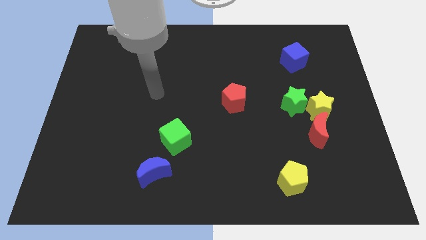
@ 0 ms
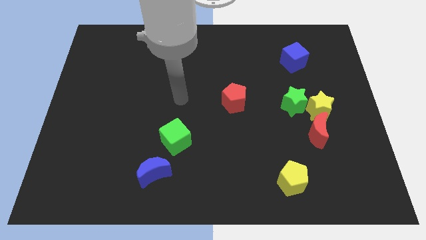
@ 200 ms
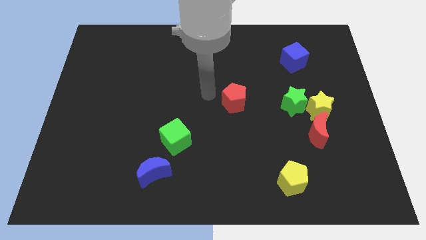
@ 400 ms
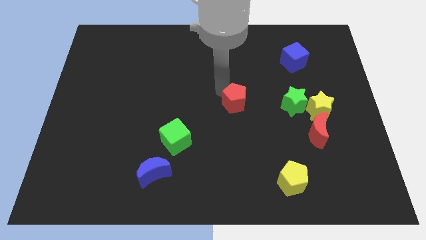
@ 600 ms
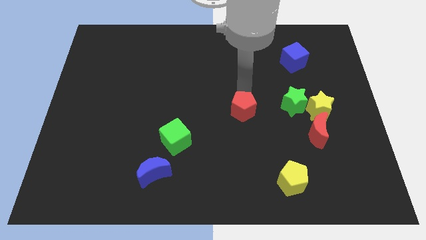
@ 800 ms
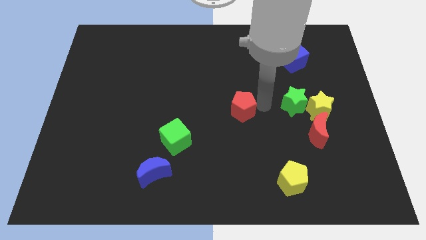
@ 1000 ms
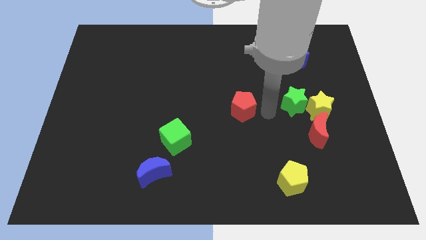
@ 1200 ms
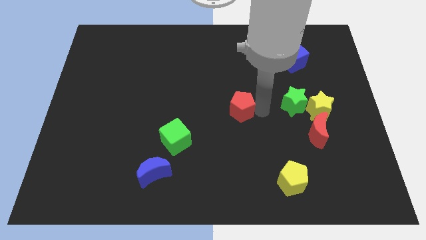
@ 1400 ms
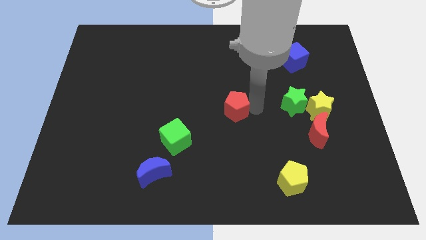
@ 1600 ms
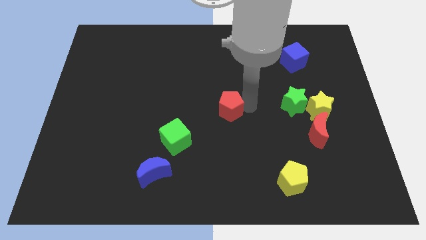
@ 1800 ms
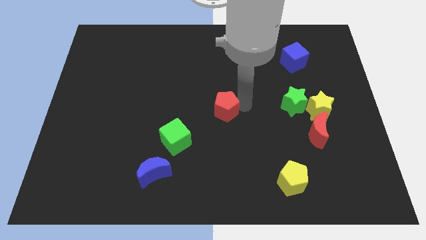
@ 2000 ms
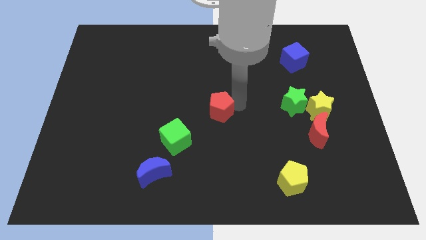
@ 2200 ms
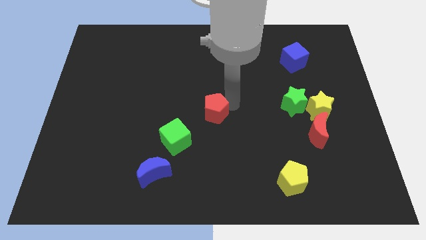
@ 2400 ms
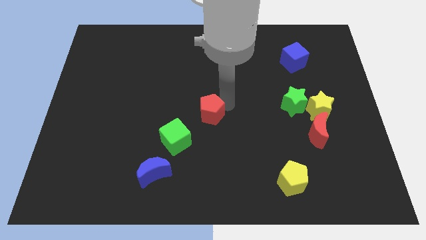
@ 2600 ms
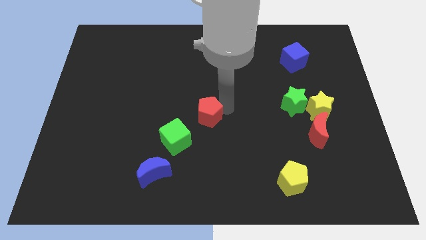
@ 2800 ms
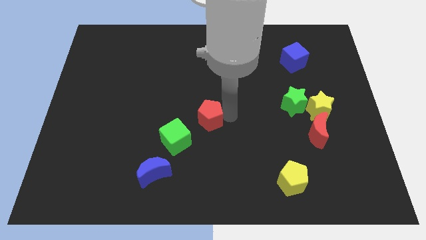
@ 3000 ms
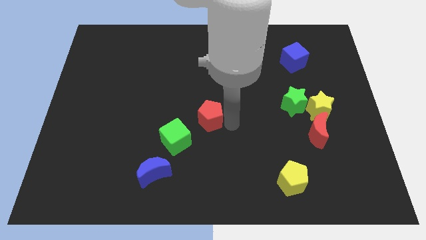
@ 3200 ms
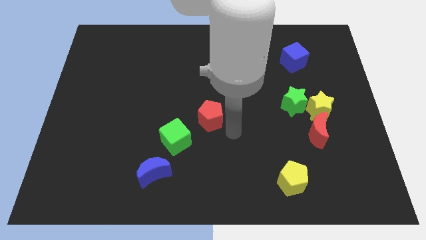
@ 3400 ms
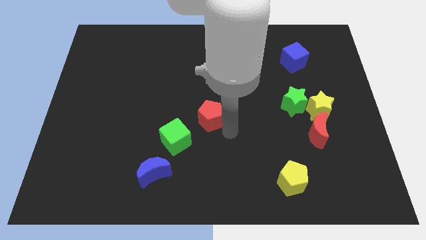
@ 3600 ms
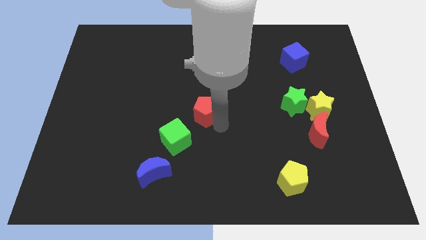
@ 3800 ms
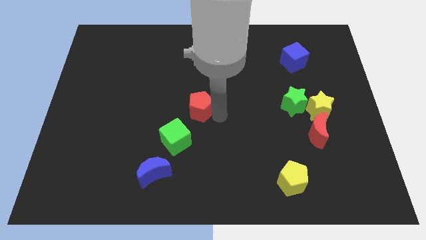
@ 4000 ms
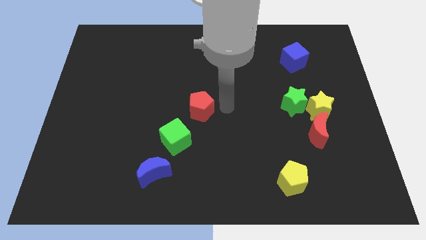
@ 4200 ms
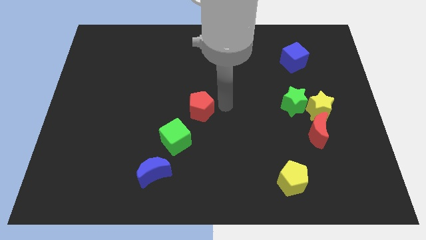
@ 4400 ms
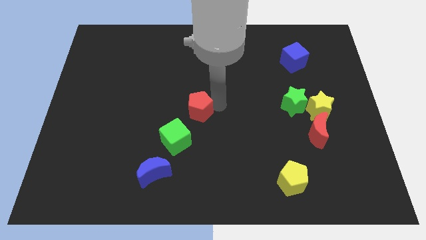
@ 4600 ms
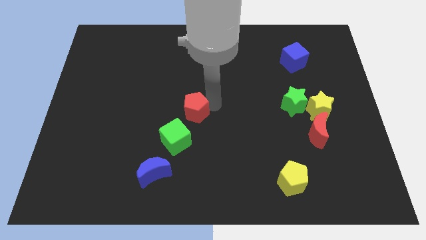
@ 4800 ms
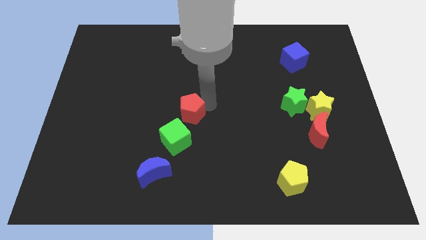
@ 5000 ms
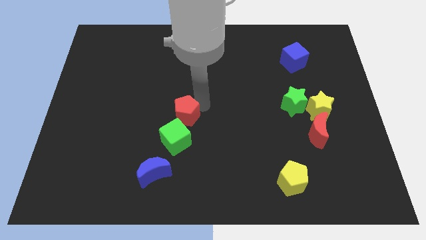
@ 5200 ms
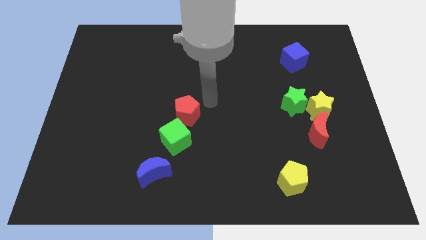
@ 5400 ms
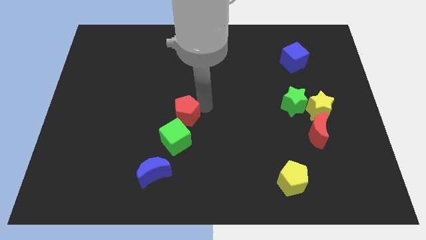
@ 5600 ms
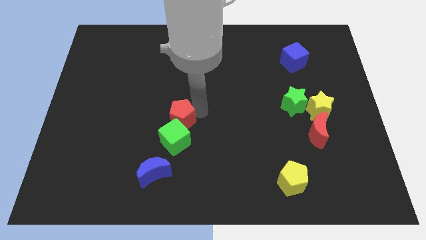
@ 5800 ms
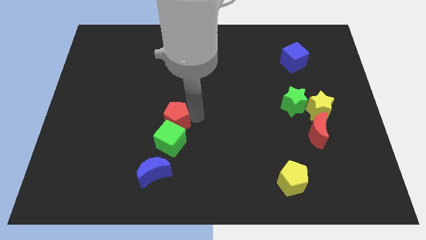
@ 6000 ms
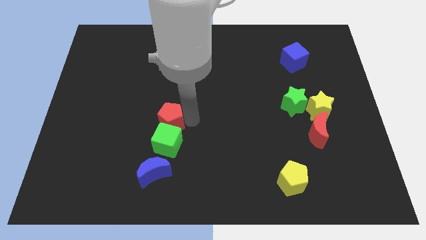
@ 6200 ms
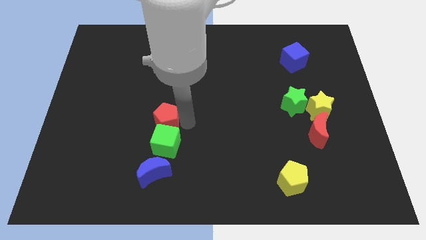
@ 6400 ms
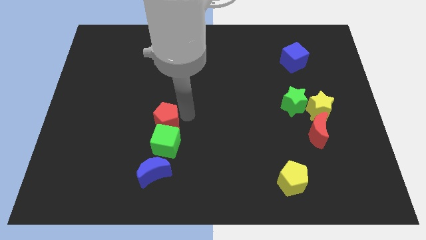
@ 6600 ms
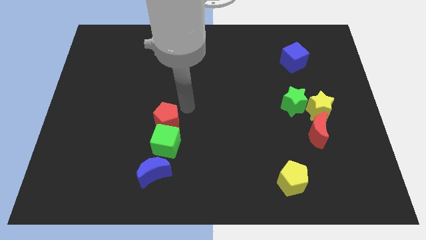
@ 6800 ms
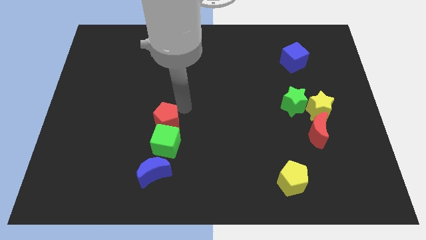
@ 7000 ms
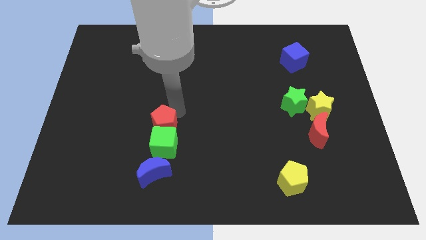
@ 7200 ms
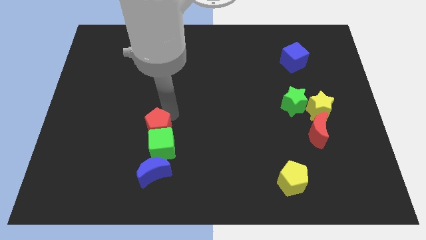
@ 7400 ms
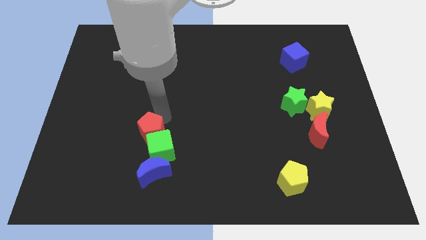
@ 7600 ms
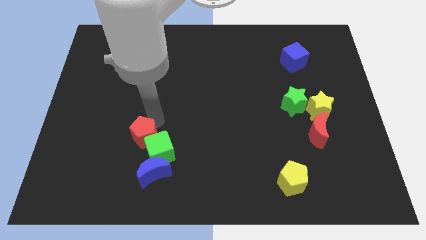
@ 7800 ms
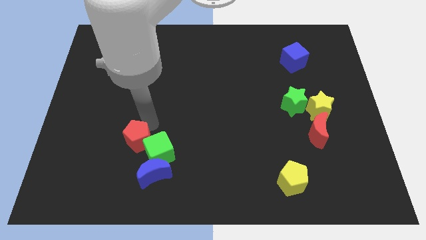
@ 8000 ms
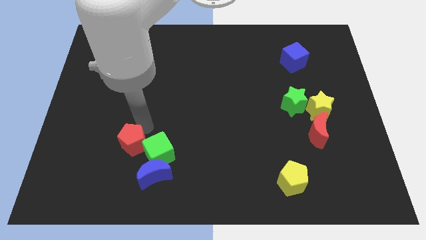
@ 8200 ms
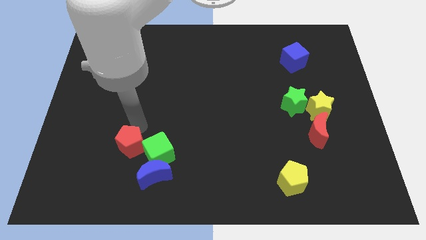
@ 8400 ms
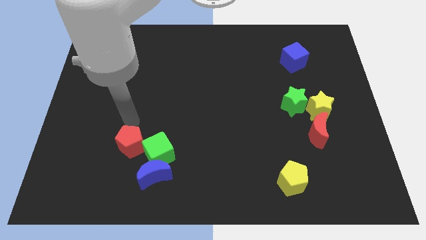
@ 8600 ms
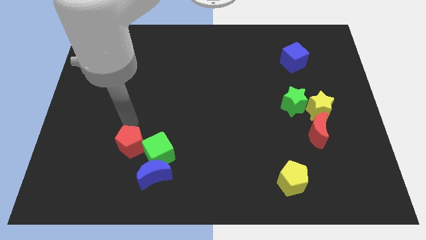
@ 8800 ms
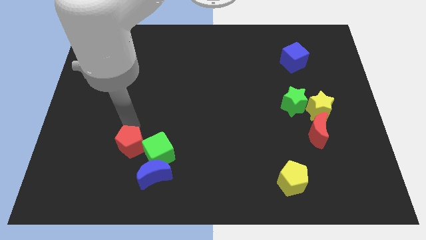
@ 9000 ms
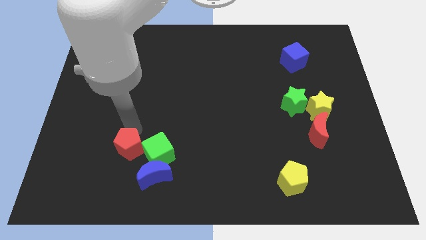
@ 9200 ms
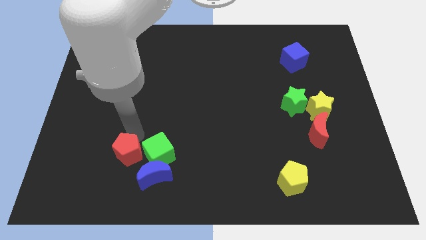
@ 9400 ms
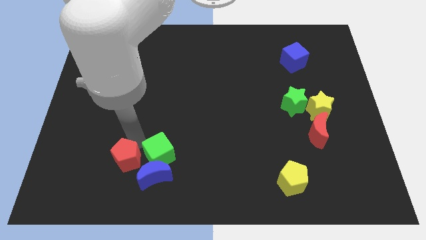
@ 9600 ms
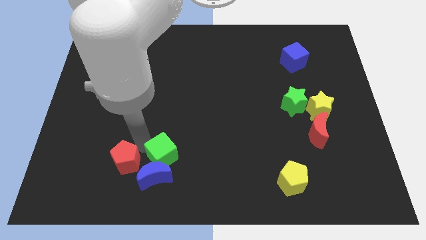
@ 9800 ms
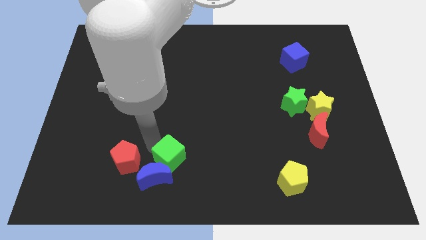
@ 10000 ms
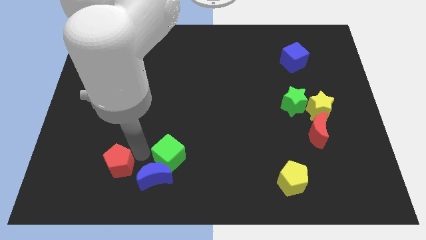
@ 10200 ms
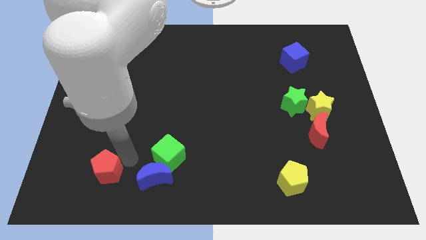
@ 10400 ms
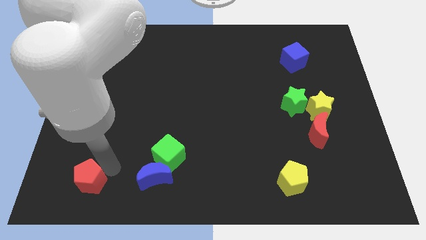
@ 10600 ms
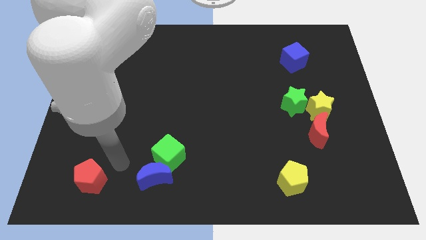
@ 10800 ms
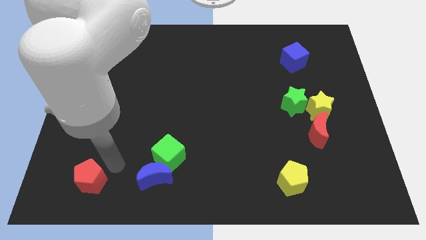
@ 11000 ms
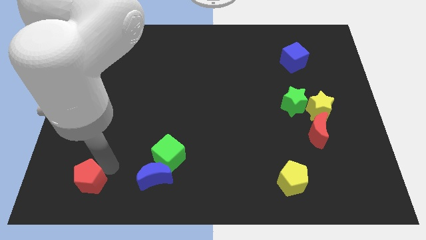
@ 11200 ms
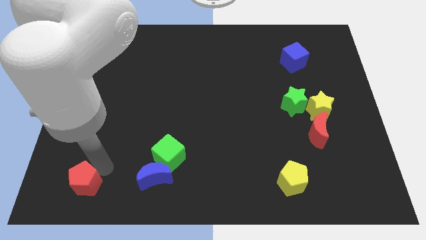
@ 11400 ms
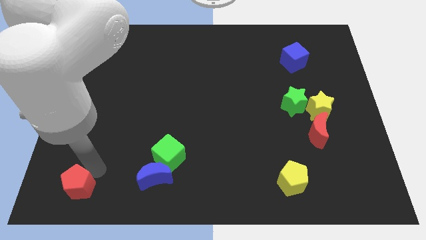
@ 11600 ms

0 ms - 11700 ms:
push the red pentagon to the bottom left of the board

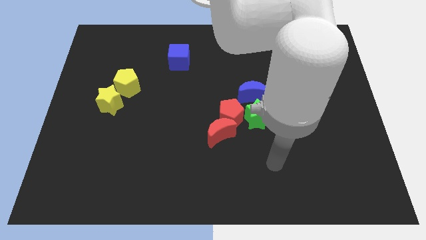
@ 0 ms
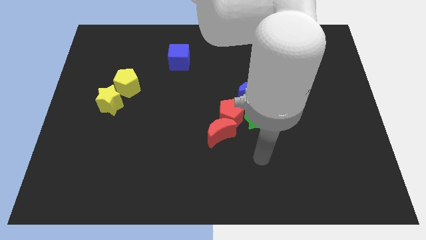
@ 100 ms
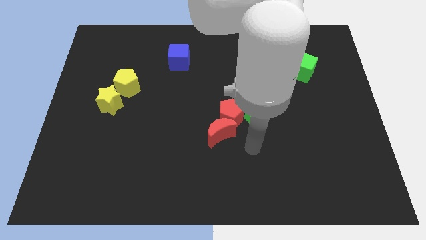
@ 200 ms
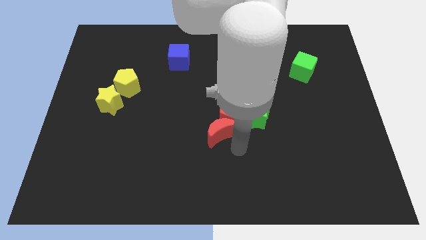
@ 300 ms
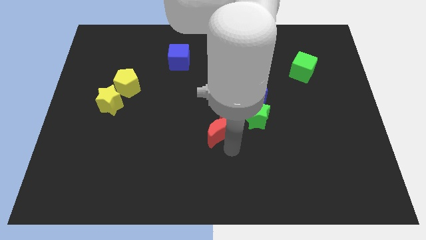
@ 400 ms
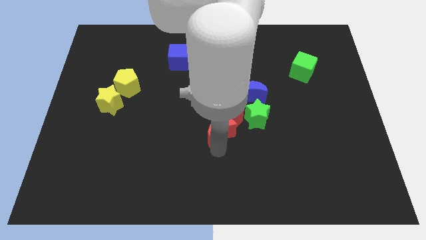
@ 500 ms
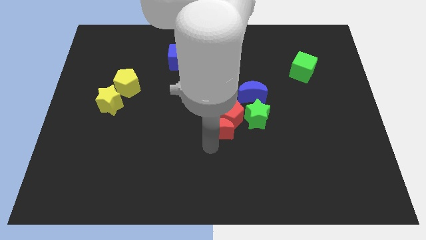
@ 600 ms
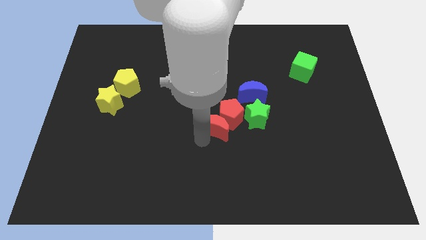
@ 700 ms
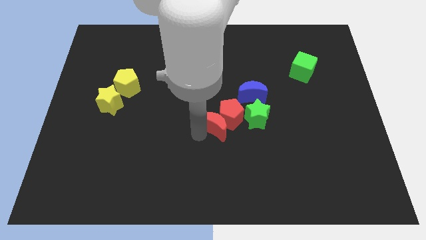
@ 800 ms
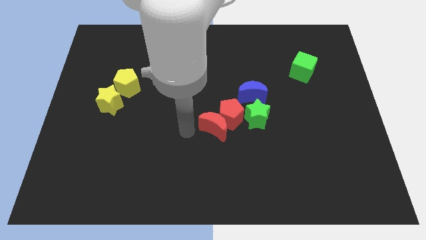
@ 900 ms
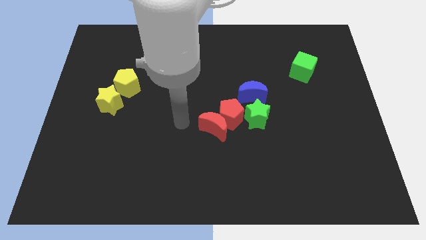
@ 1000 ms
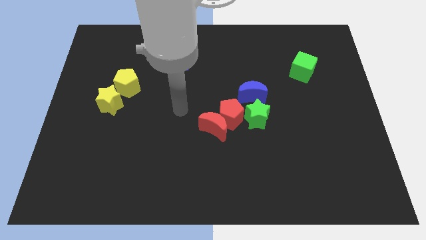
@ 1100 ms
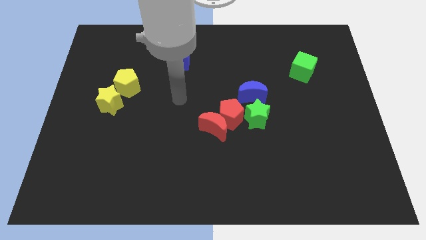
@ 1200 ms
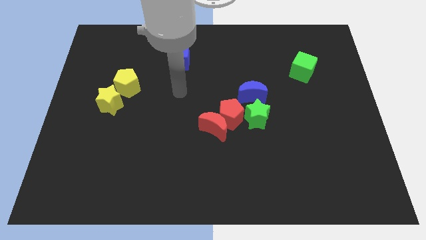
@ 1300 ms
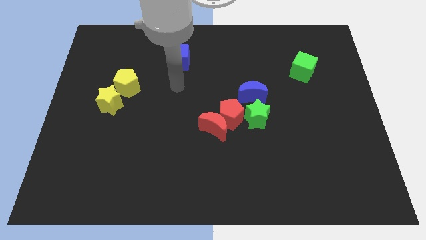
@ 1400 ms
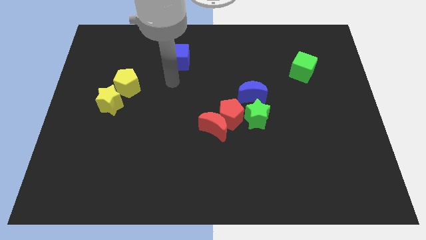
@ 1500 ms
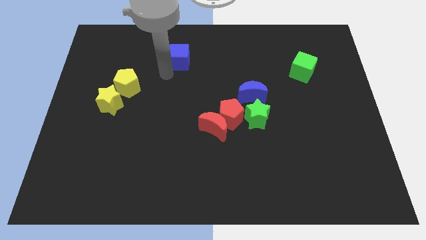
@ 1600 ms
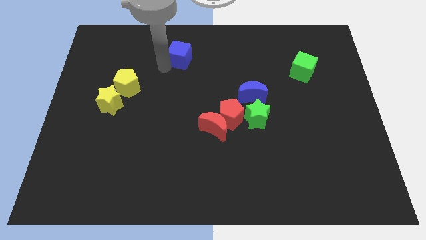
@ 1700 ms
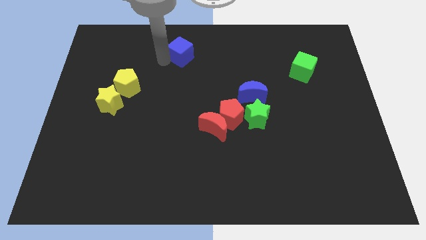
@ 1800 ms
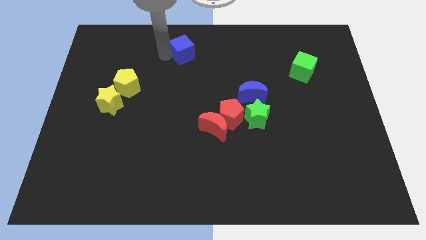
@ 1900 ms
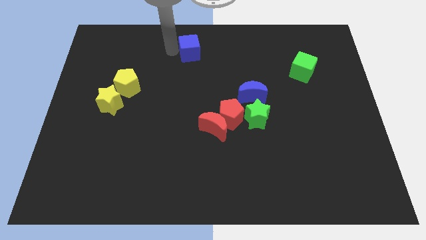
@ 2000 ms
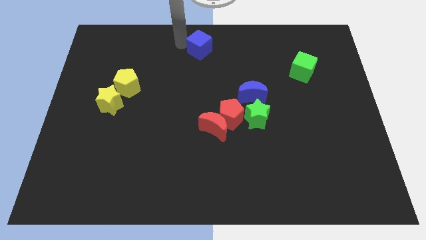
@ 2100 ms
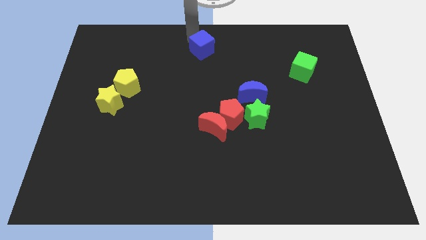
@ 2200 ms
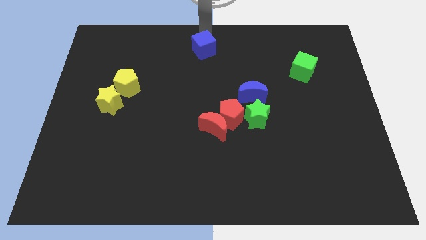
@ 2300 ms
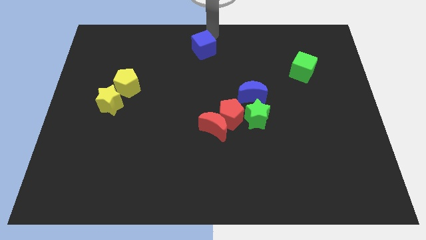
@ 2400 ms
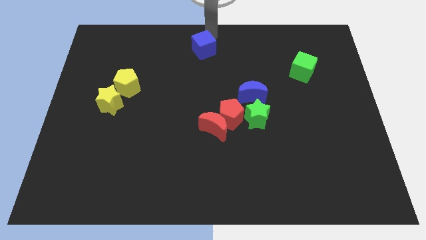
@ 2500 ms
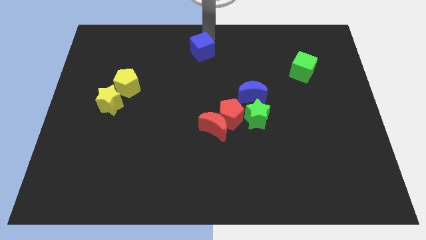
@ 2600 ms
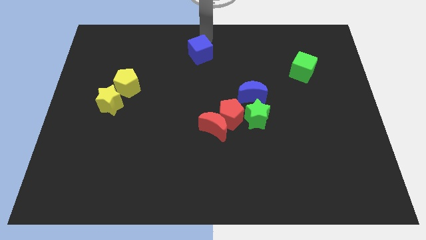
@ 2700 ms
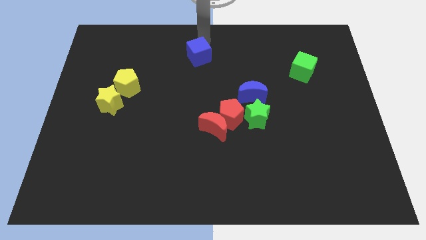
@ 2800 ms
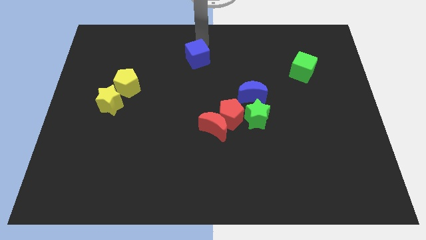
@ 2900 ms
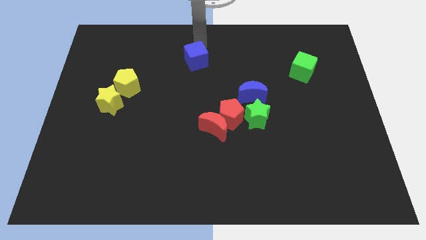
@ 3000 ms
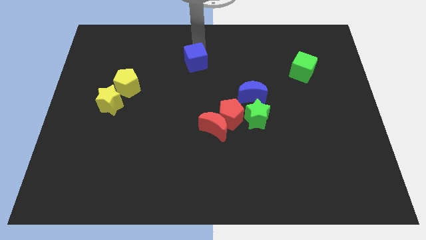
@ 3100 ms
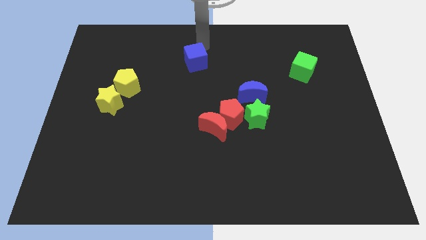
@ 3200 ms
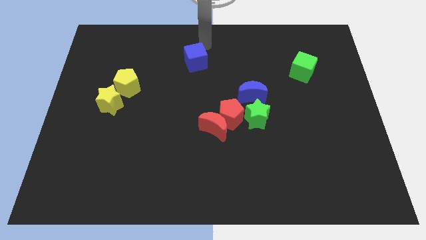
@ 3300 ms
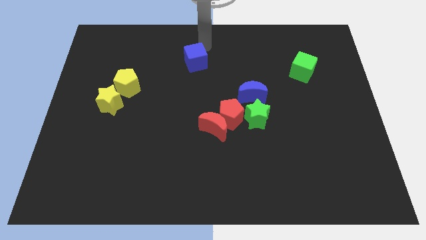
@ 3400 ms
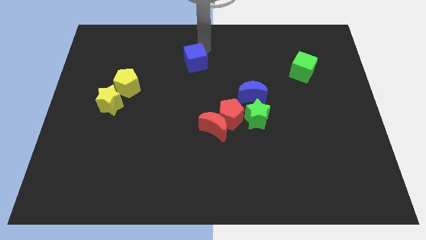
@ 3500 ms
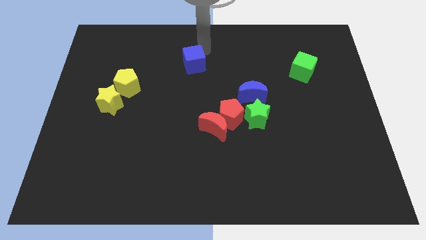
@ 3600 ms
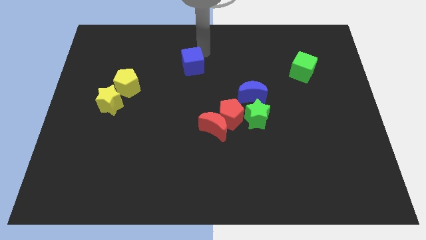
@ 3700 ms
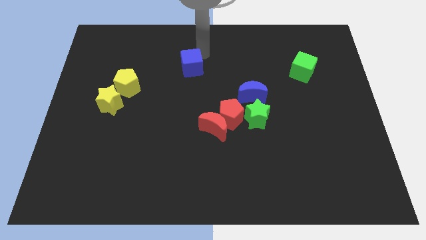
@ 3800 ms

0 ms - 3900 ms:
slide the blue cube to the center
